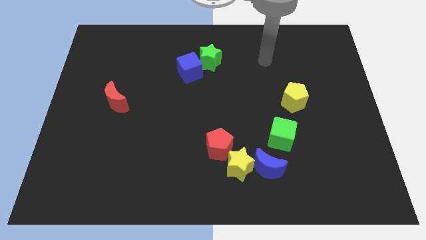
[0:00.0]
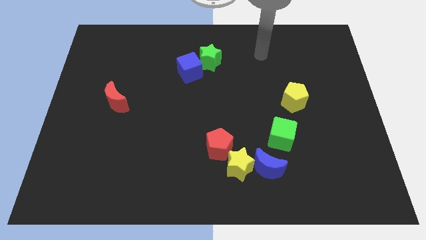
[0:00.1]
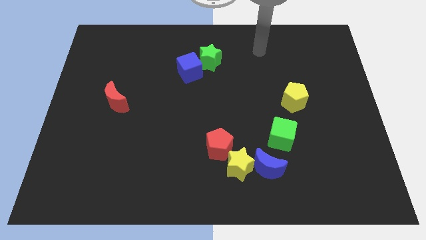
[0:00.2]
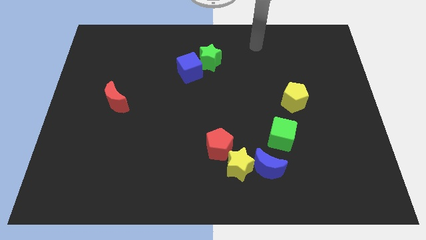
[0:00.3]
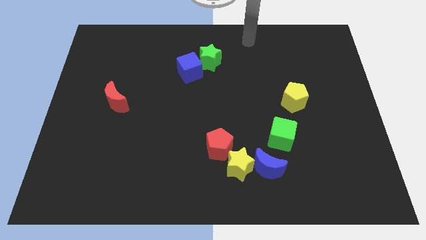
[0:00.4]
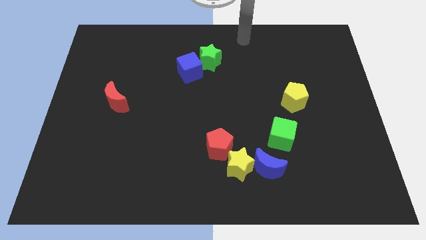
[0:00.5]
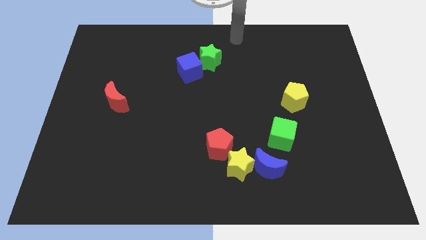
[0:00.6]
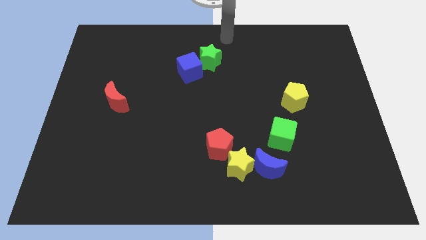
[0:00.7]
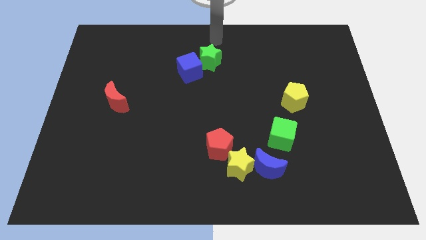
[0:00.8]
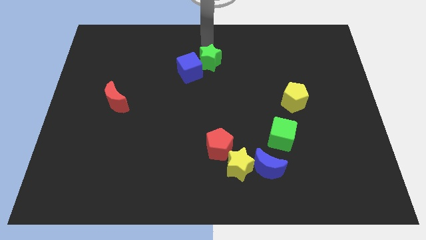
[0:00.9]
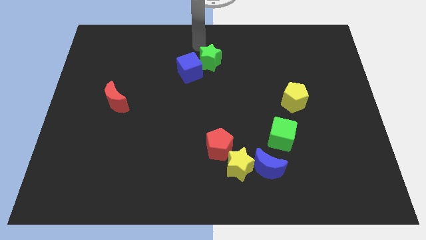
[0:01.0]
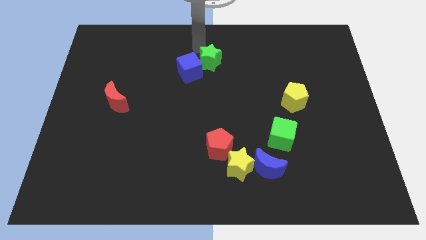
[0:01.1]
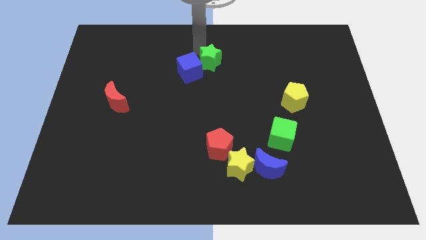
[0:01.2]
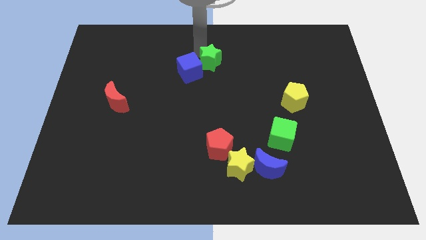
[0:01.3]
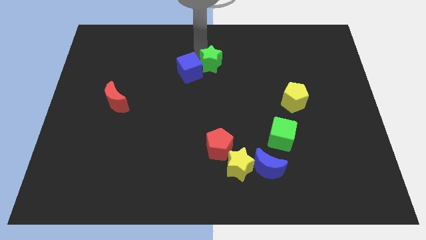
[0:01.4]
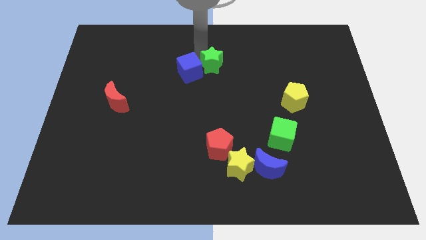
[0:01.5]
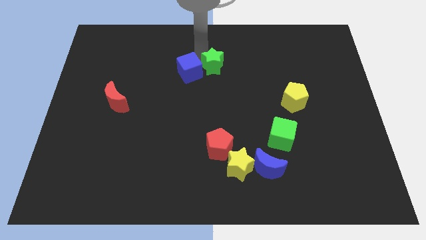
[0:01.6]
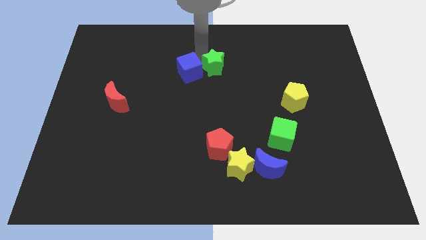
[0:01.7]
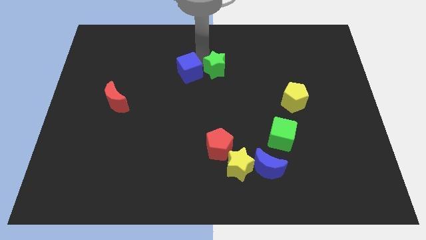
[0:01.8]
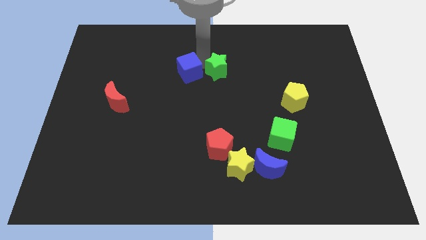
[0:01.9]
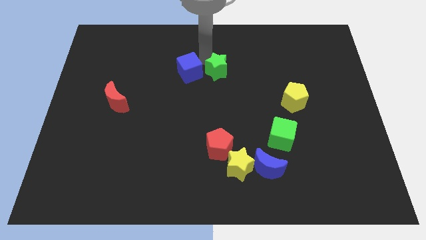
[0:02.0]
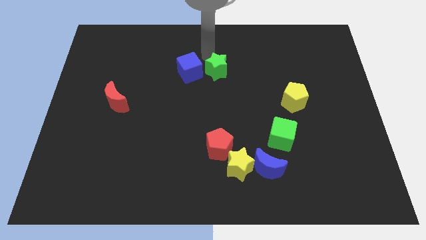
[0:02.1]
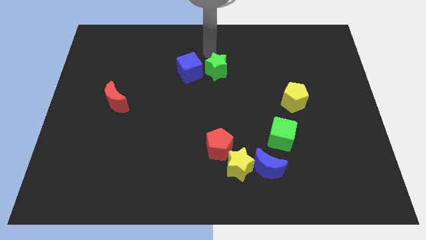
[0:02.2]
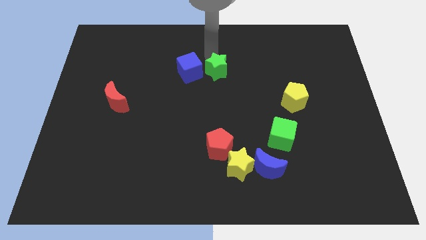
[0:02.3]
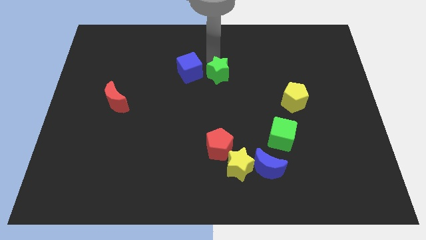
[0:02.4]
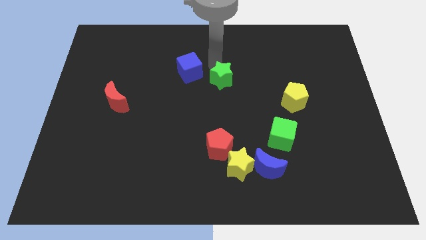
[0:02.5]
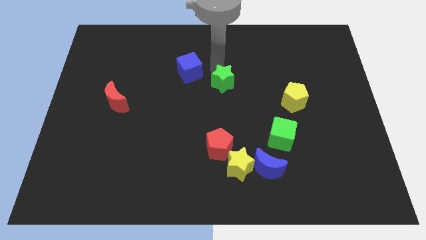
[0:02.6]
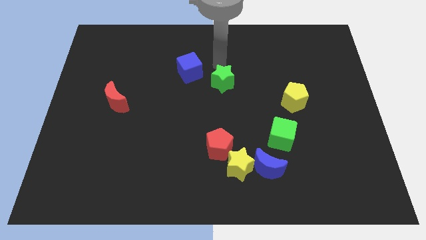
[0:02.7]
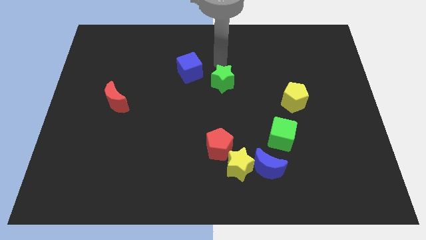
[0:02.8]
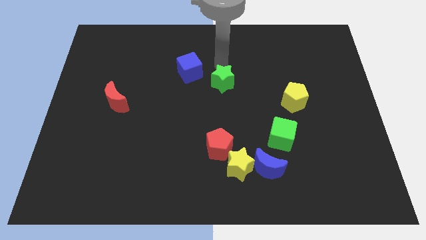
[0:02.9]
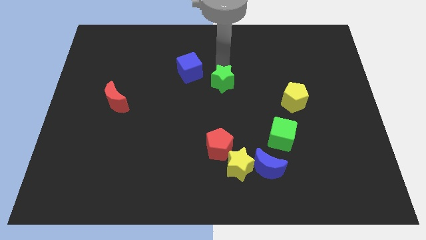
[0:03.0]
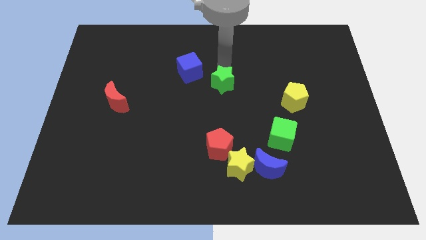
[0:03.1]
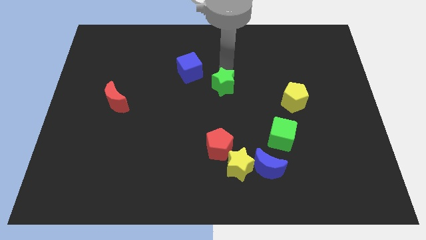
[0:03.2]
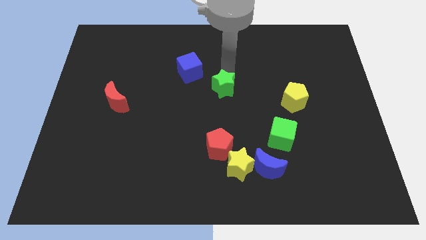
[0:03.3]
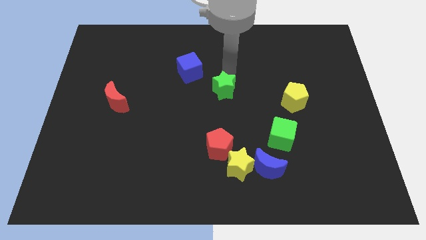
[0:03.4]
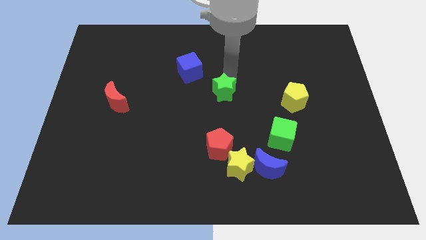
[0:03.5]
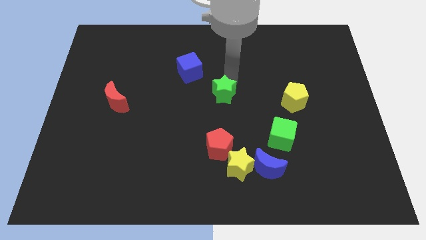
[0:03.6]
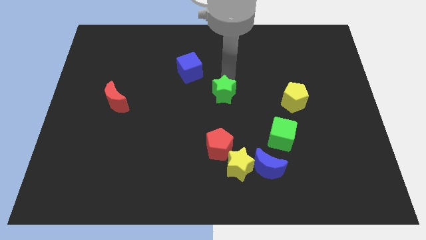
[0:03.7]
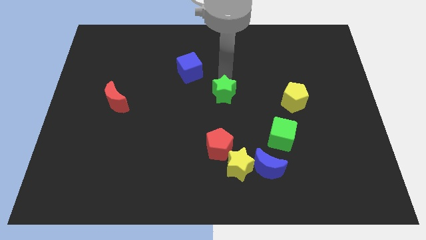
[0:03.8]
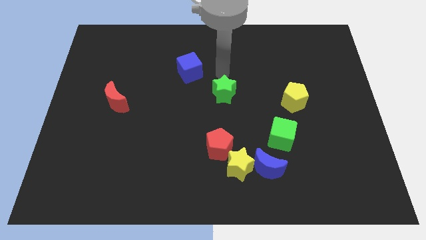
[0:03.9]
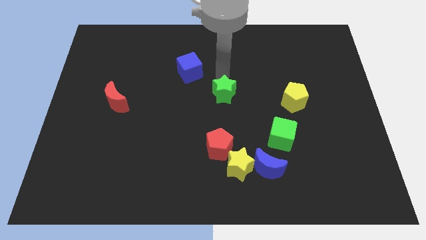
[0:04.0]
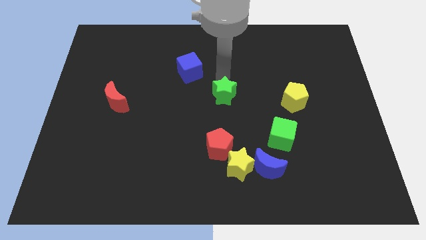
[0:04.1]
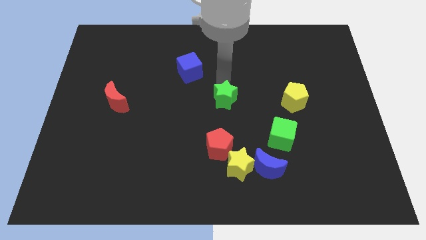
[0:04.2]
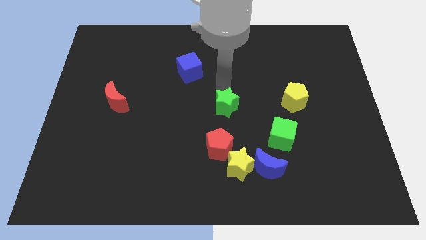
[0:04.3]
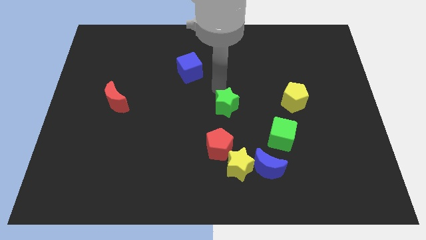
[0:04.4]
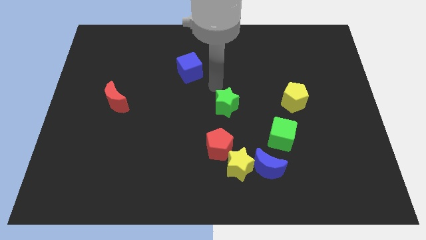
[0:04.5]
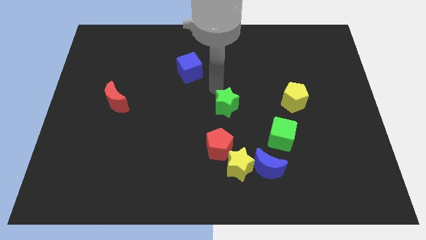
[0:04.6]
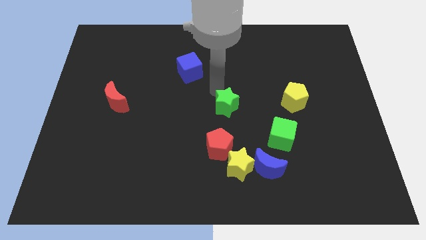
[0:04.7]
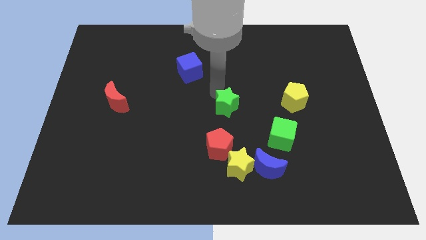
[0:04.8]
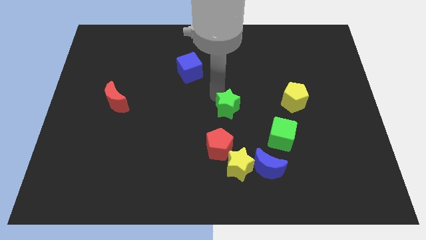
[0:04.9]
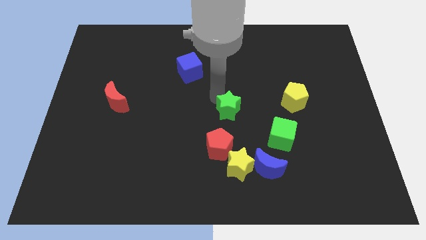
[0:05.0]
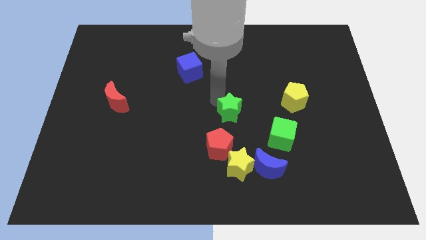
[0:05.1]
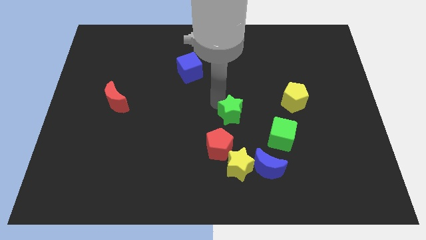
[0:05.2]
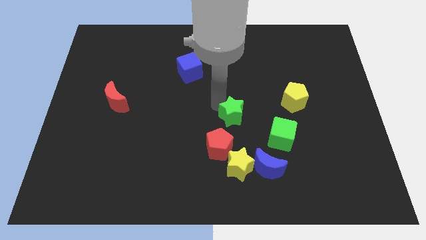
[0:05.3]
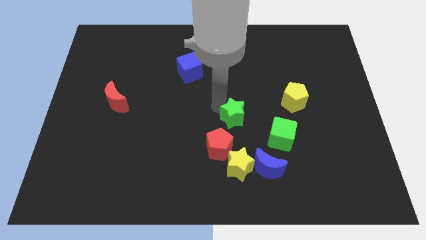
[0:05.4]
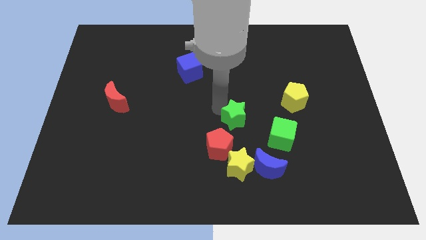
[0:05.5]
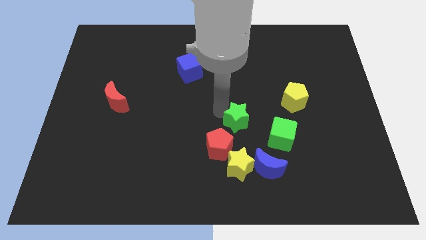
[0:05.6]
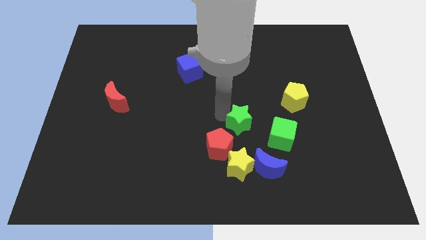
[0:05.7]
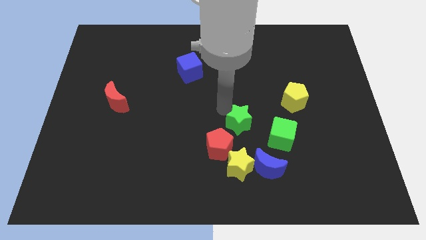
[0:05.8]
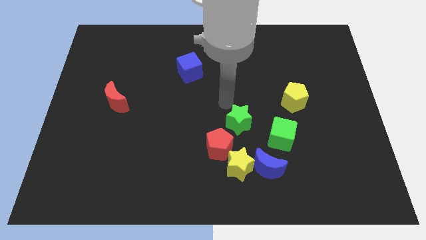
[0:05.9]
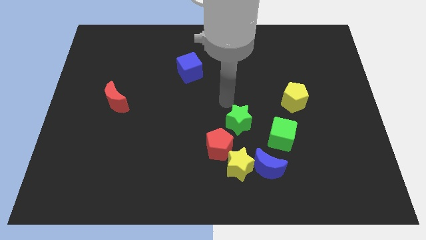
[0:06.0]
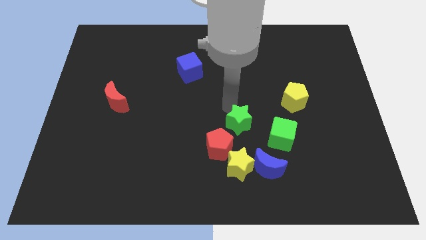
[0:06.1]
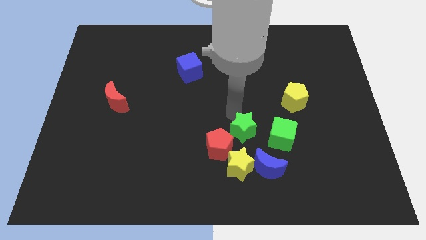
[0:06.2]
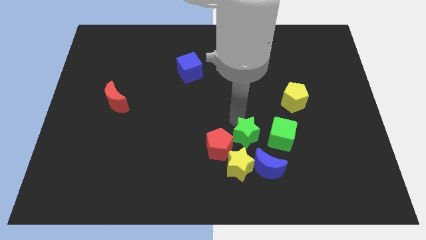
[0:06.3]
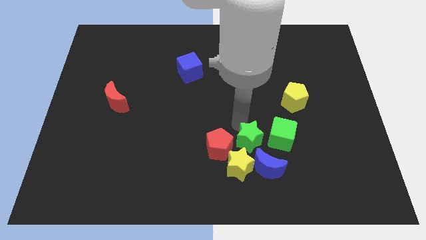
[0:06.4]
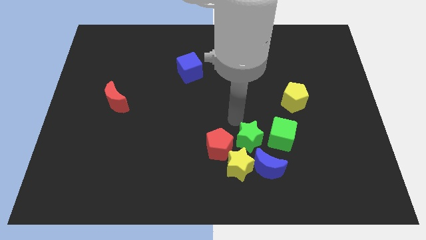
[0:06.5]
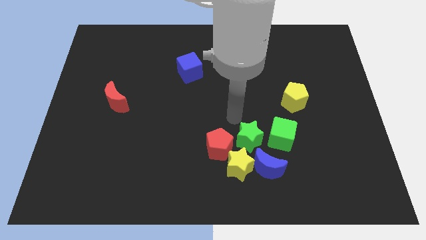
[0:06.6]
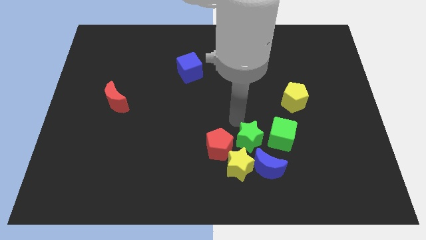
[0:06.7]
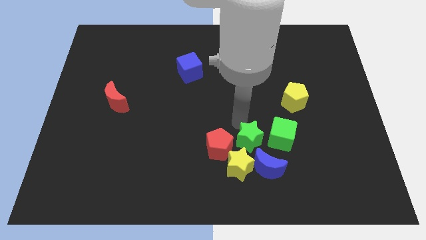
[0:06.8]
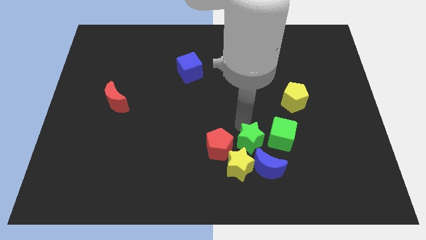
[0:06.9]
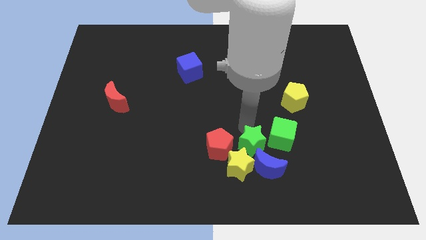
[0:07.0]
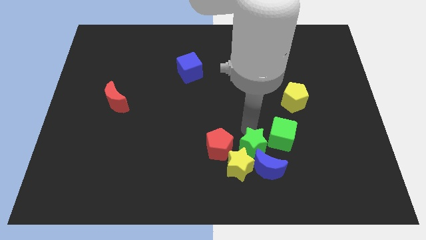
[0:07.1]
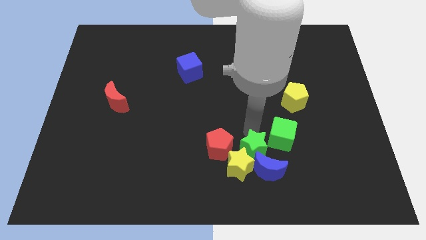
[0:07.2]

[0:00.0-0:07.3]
slide the green star close to the blue moon

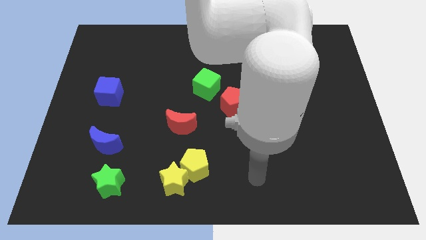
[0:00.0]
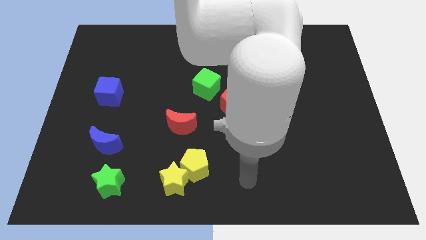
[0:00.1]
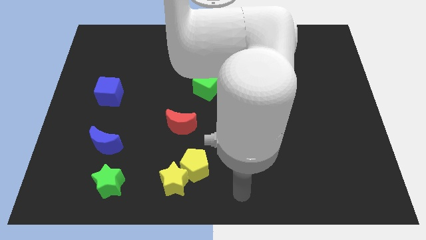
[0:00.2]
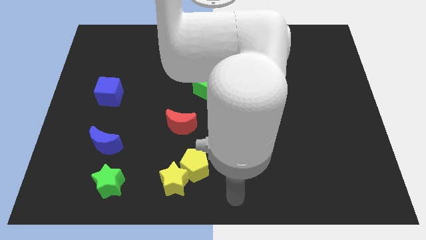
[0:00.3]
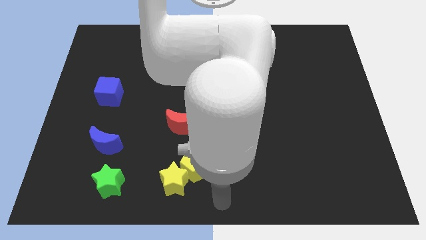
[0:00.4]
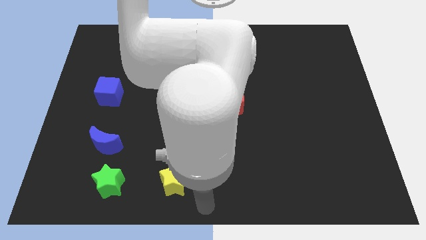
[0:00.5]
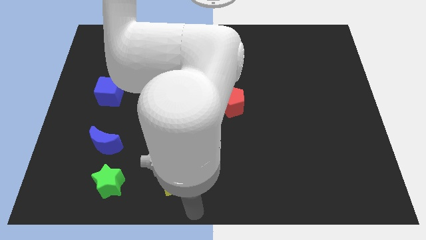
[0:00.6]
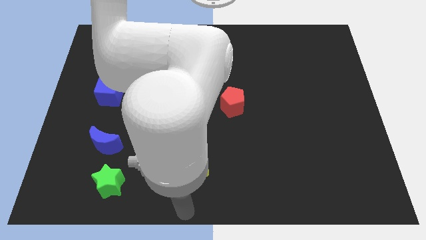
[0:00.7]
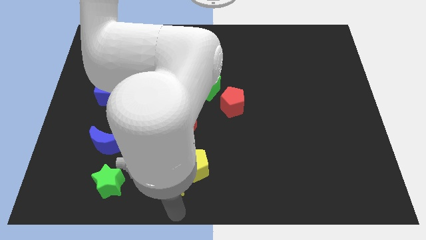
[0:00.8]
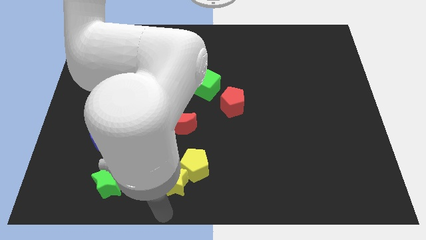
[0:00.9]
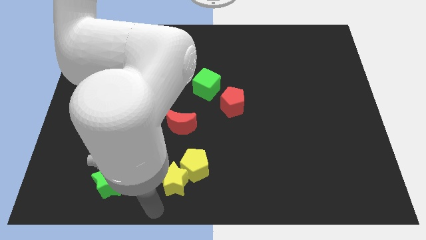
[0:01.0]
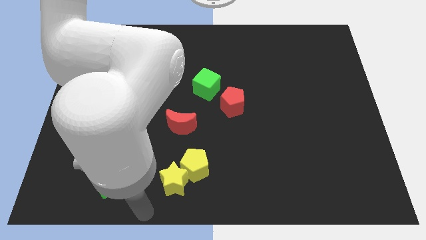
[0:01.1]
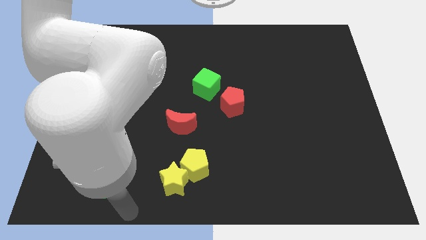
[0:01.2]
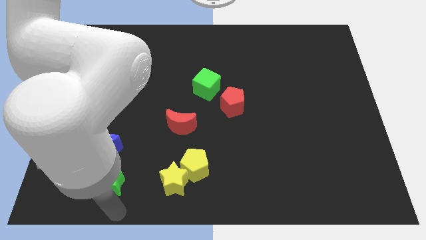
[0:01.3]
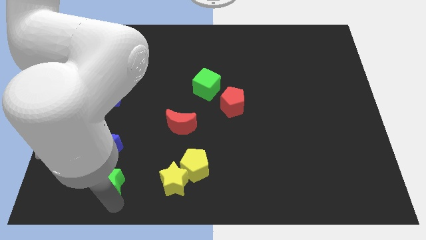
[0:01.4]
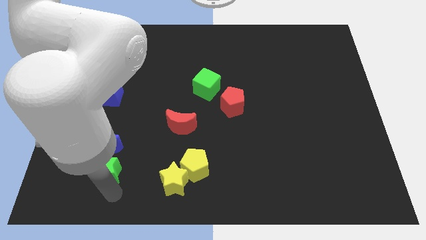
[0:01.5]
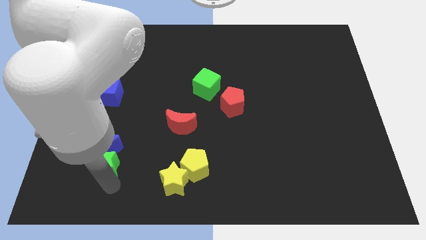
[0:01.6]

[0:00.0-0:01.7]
move the green star close to the blue moon
